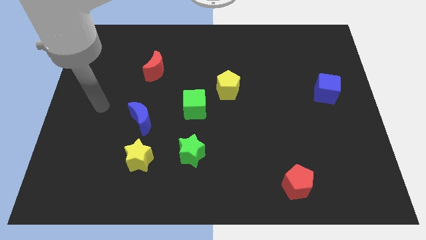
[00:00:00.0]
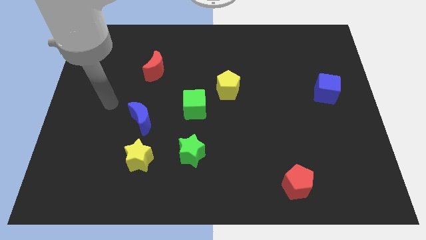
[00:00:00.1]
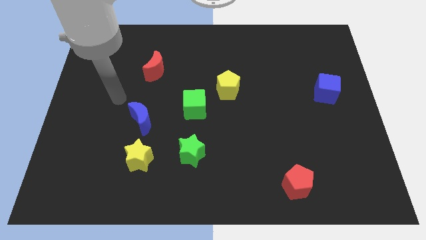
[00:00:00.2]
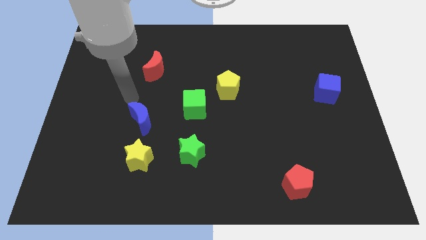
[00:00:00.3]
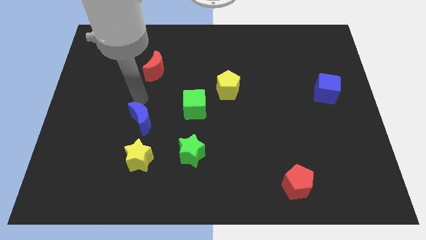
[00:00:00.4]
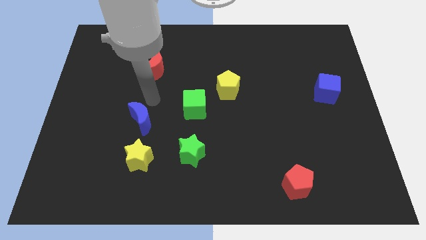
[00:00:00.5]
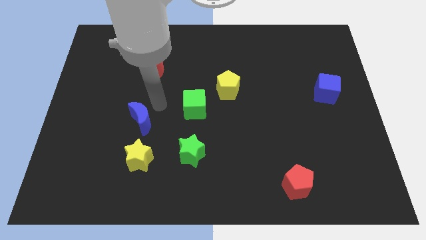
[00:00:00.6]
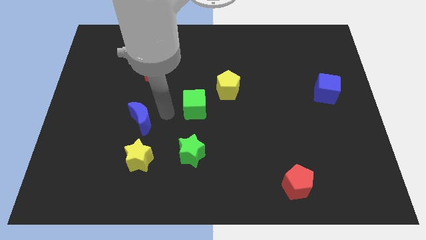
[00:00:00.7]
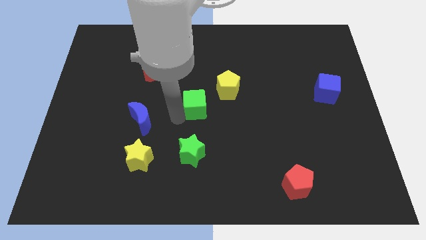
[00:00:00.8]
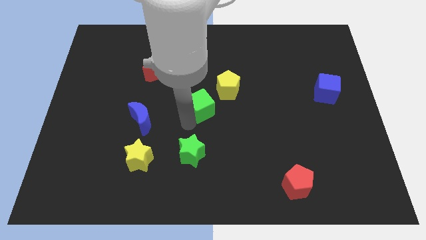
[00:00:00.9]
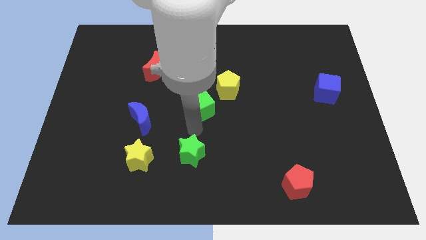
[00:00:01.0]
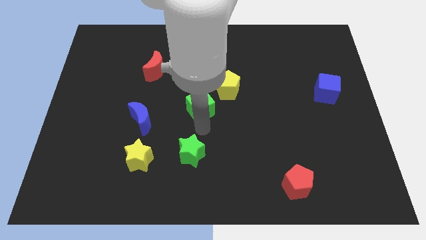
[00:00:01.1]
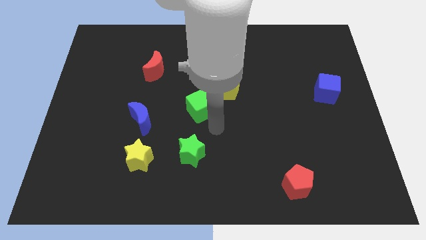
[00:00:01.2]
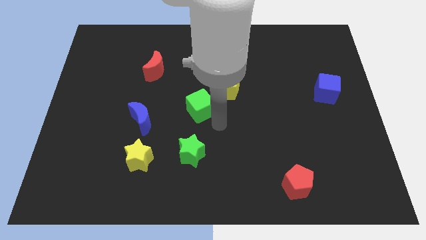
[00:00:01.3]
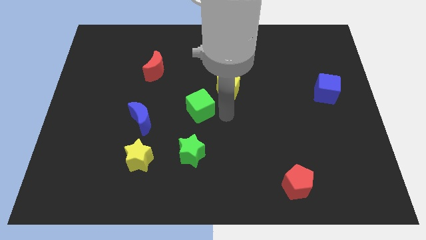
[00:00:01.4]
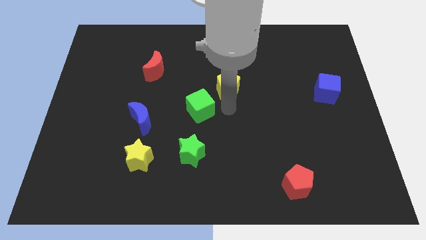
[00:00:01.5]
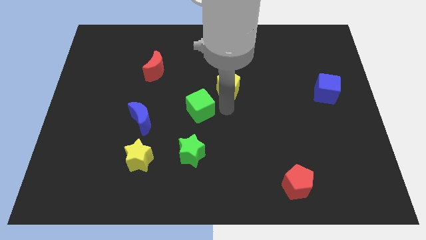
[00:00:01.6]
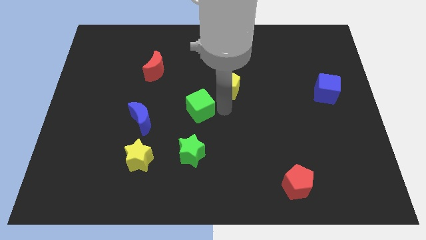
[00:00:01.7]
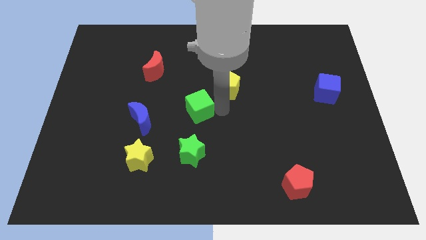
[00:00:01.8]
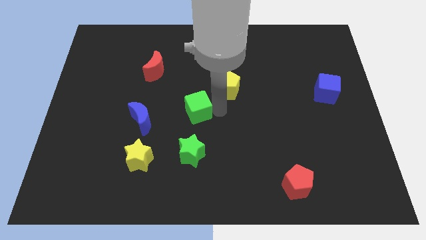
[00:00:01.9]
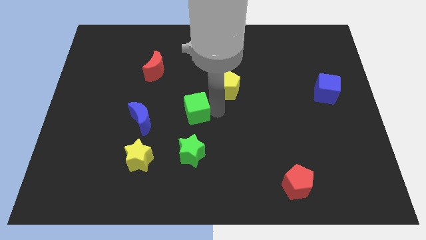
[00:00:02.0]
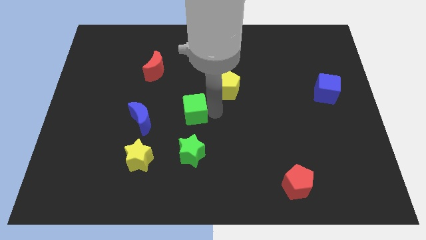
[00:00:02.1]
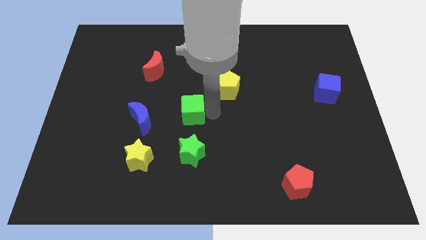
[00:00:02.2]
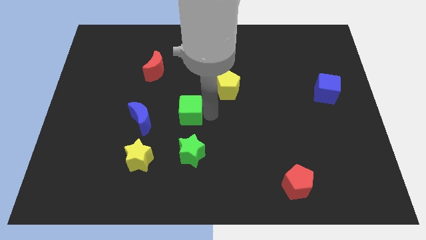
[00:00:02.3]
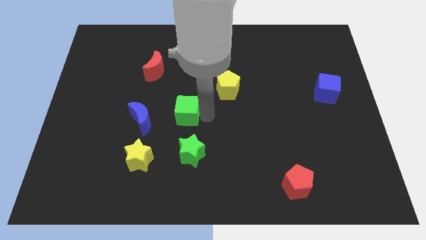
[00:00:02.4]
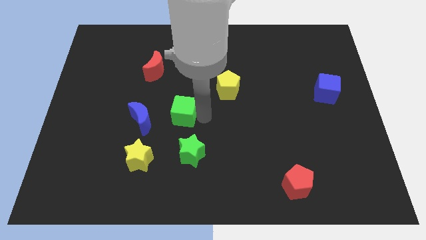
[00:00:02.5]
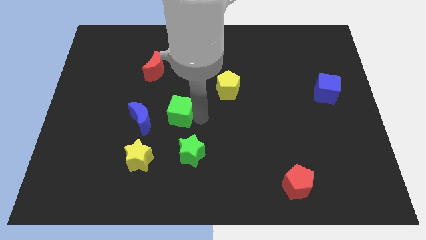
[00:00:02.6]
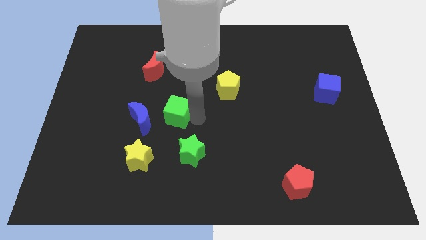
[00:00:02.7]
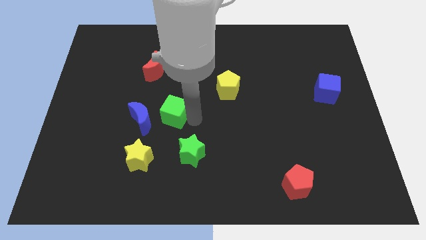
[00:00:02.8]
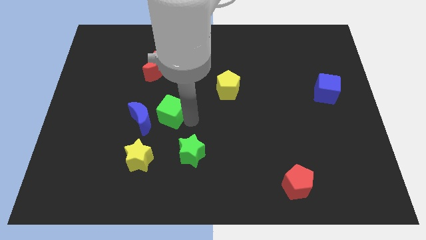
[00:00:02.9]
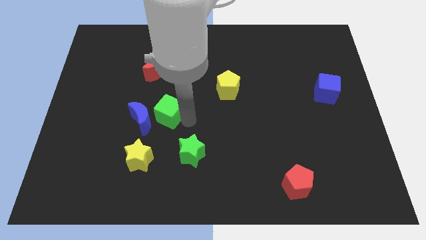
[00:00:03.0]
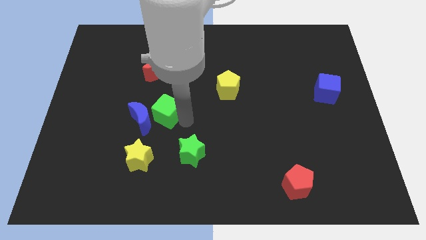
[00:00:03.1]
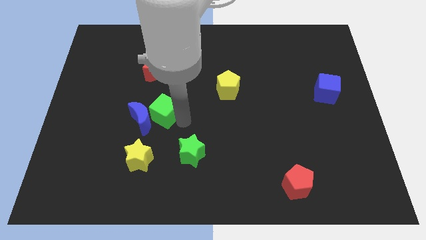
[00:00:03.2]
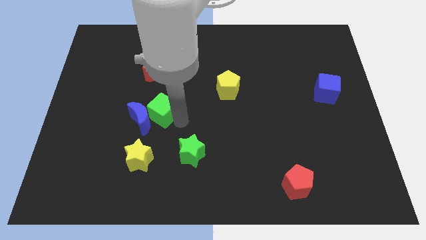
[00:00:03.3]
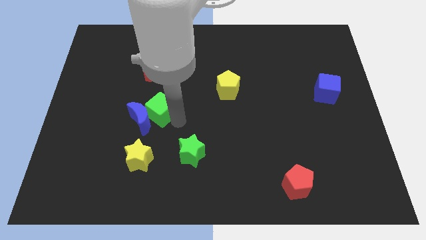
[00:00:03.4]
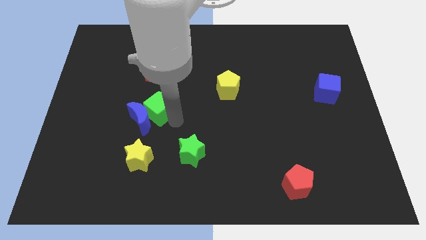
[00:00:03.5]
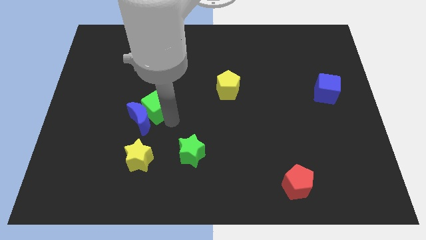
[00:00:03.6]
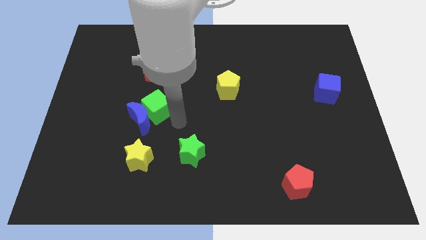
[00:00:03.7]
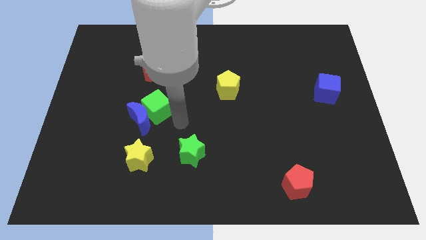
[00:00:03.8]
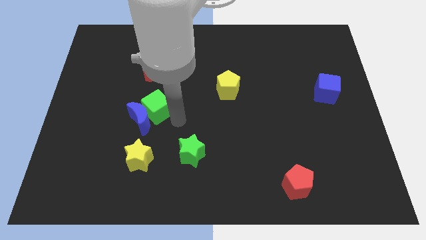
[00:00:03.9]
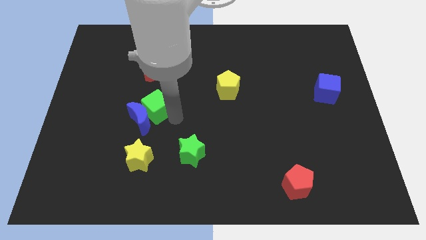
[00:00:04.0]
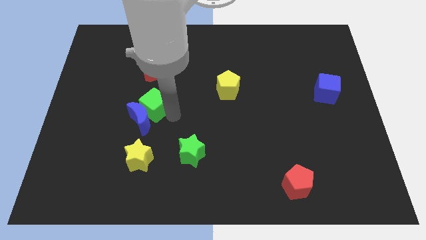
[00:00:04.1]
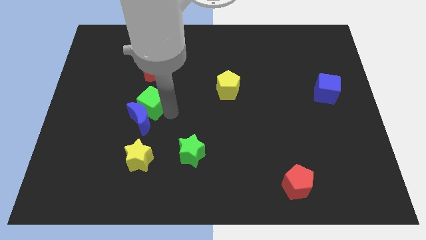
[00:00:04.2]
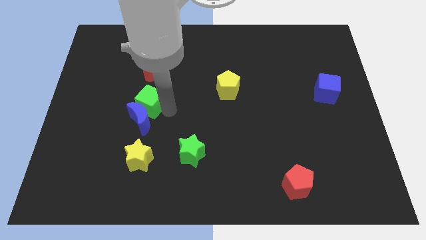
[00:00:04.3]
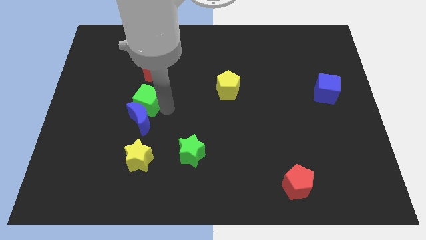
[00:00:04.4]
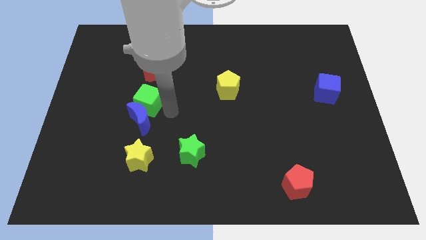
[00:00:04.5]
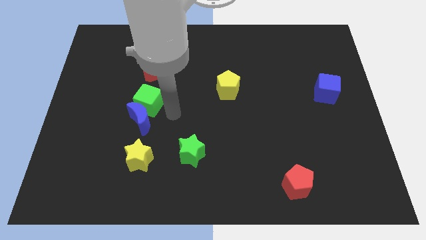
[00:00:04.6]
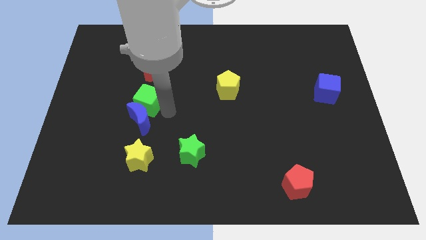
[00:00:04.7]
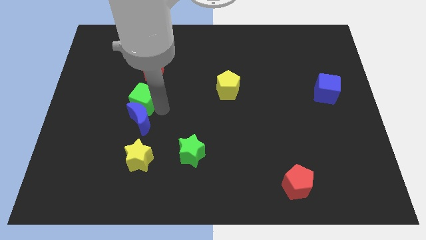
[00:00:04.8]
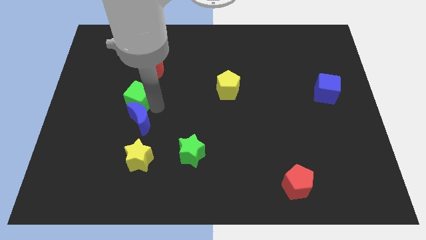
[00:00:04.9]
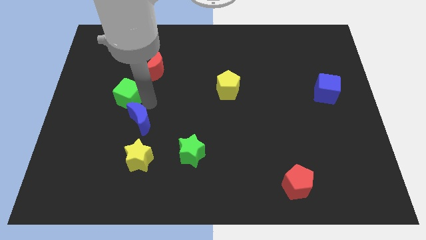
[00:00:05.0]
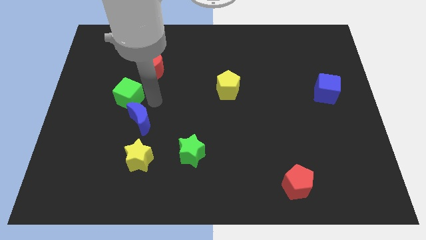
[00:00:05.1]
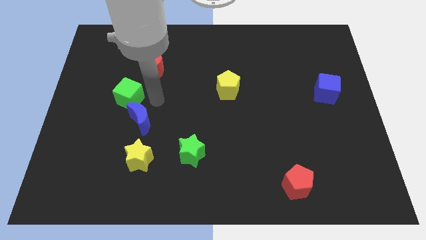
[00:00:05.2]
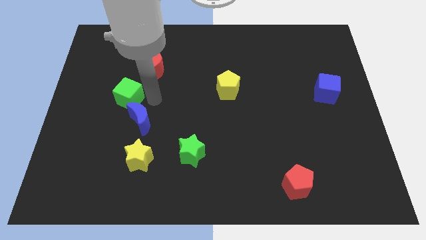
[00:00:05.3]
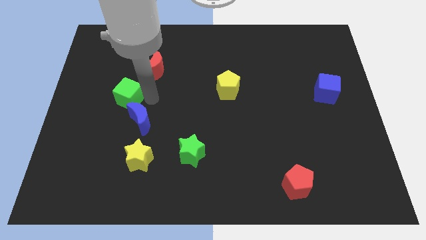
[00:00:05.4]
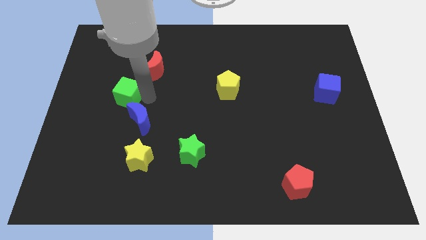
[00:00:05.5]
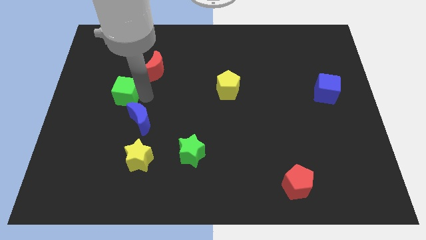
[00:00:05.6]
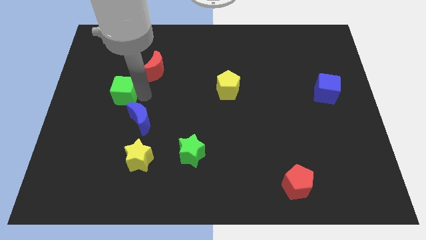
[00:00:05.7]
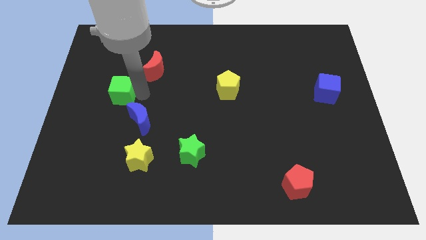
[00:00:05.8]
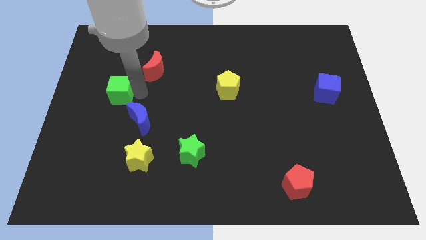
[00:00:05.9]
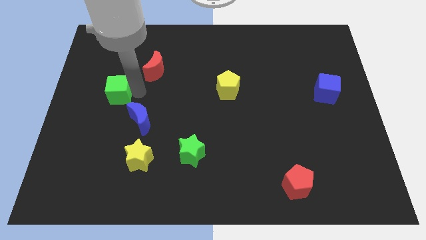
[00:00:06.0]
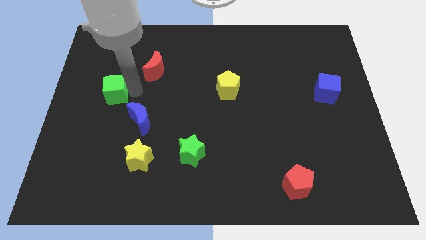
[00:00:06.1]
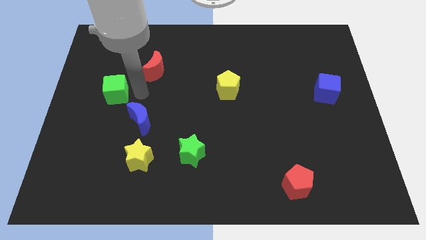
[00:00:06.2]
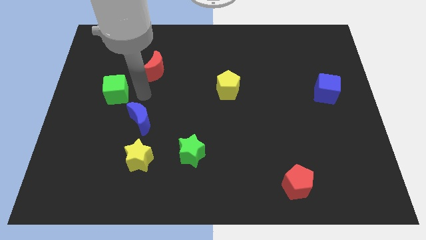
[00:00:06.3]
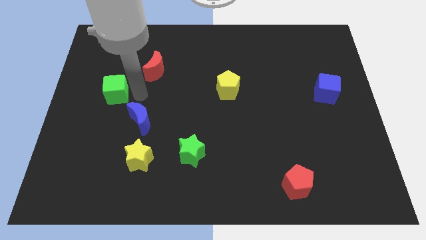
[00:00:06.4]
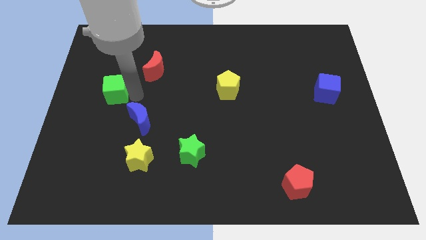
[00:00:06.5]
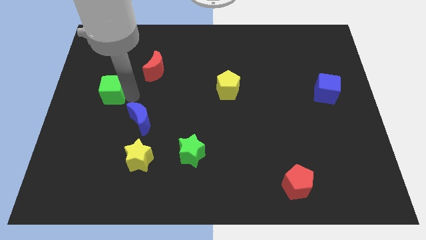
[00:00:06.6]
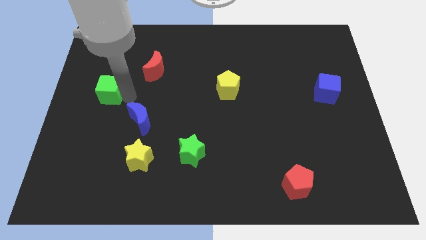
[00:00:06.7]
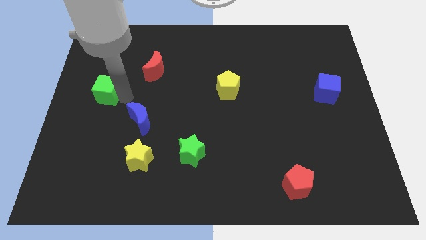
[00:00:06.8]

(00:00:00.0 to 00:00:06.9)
push the green cube to the left side

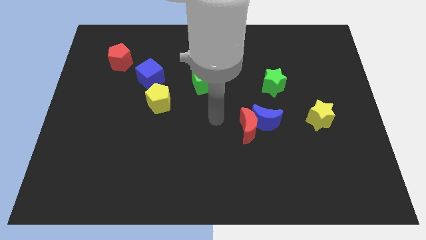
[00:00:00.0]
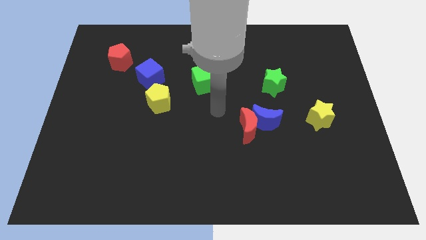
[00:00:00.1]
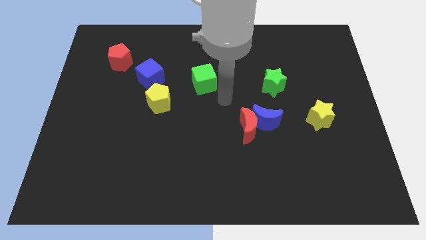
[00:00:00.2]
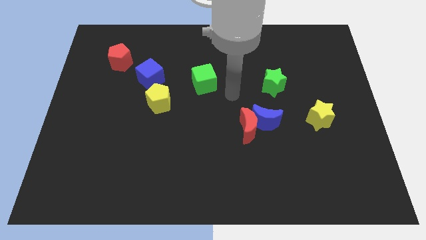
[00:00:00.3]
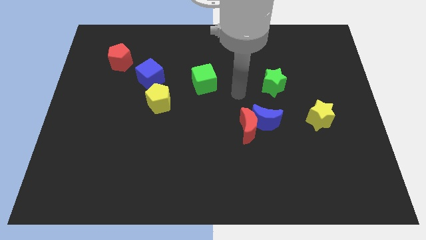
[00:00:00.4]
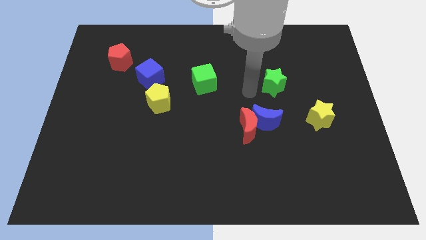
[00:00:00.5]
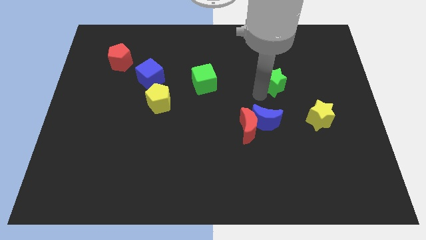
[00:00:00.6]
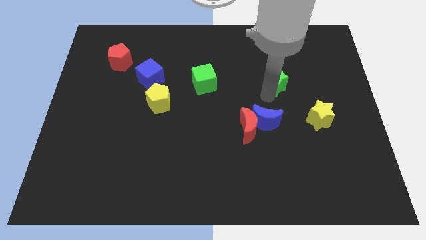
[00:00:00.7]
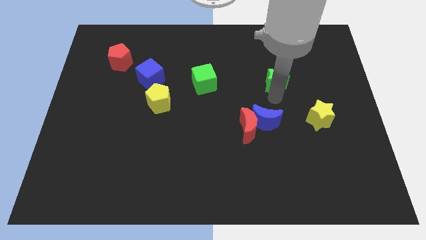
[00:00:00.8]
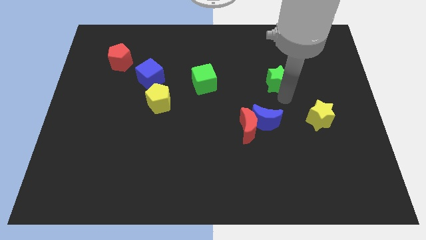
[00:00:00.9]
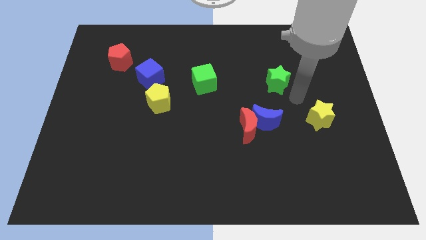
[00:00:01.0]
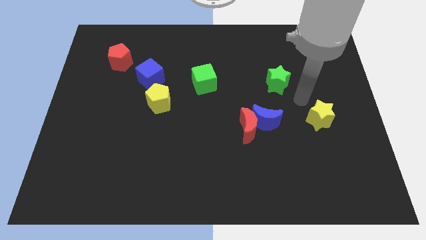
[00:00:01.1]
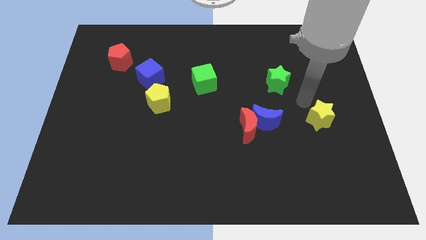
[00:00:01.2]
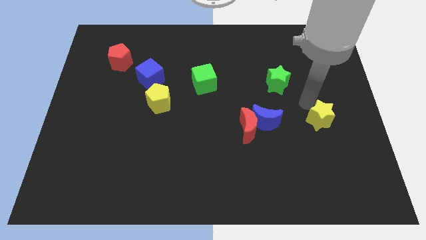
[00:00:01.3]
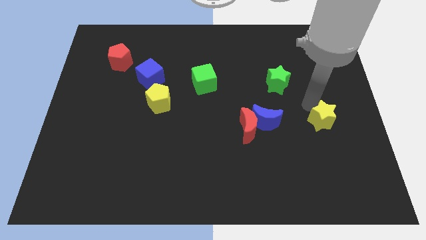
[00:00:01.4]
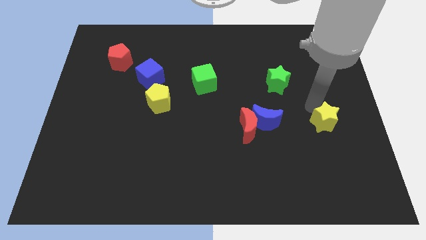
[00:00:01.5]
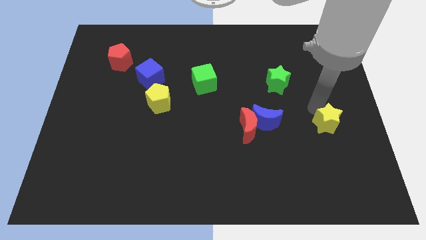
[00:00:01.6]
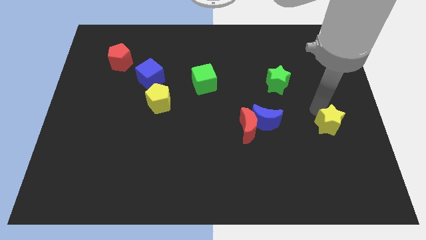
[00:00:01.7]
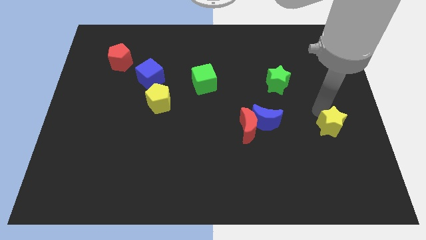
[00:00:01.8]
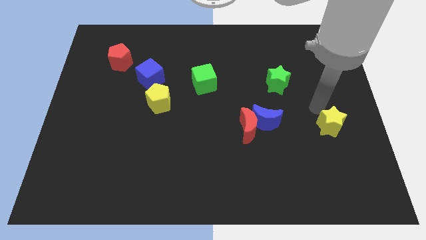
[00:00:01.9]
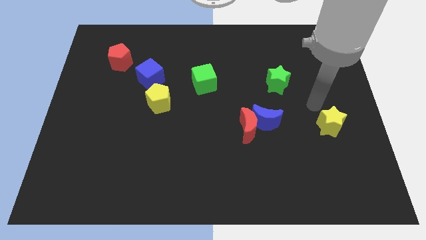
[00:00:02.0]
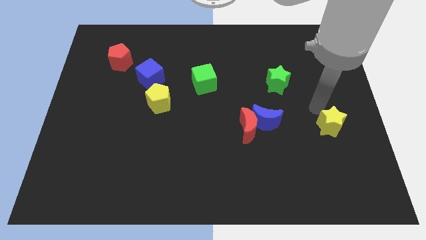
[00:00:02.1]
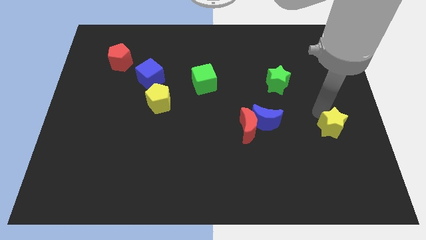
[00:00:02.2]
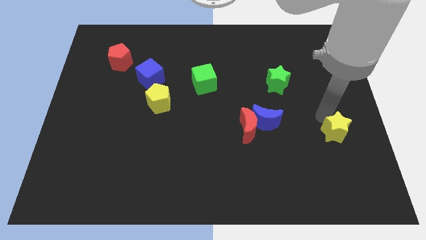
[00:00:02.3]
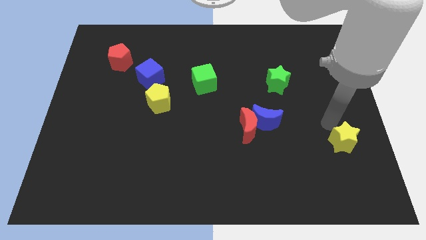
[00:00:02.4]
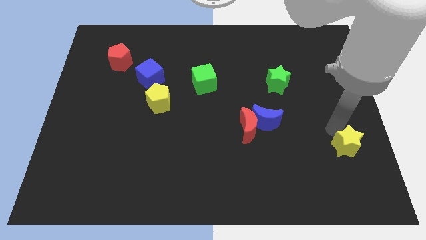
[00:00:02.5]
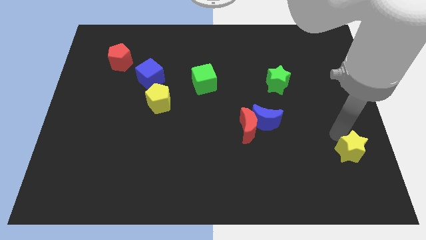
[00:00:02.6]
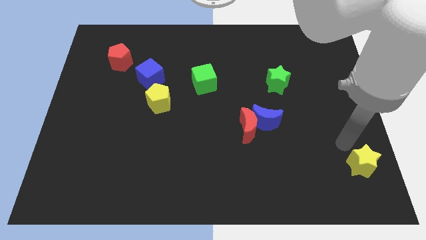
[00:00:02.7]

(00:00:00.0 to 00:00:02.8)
slide the yellow star to the lower right corner
